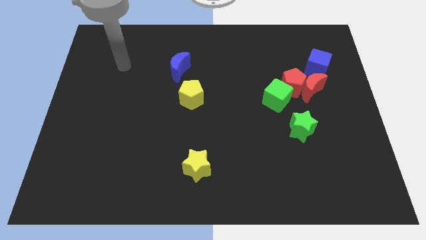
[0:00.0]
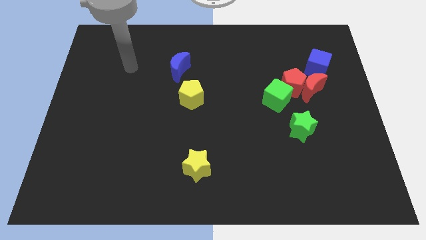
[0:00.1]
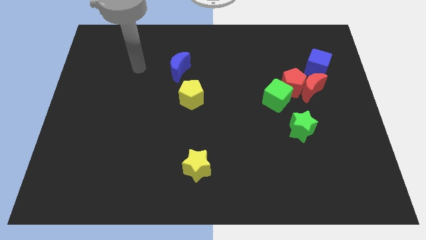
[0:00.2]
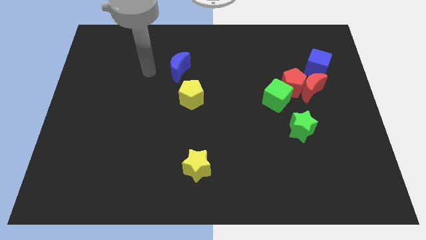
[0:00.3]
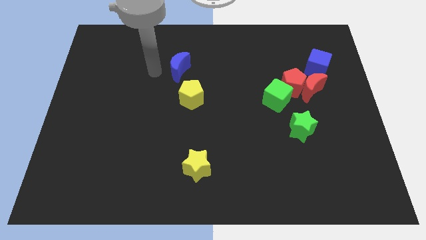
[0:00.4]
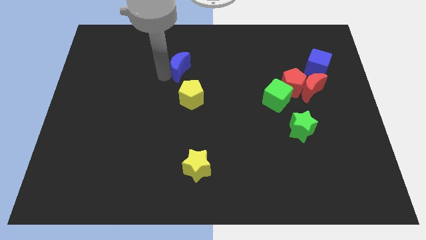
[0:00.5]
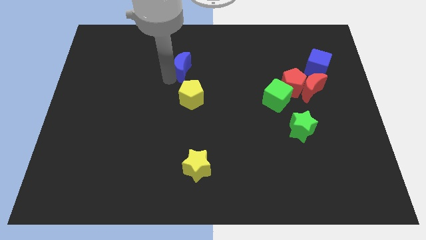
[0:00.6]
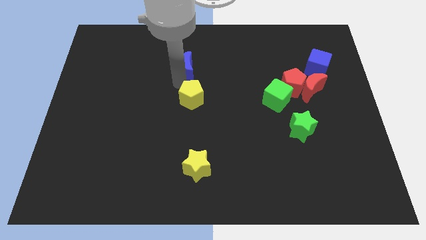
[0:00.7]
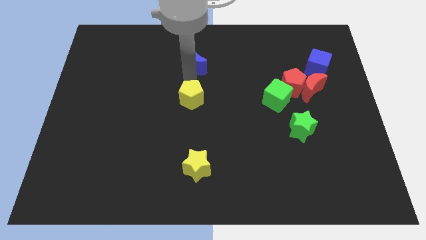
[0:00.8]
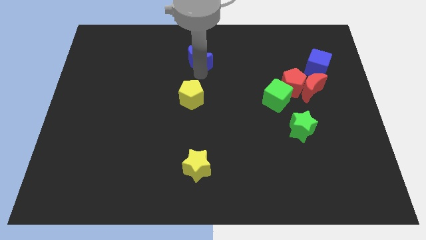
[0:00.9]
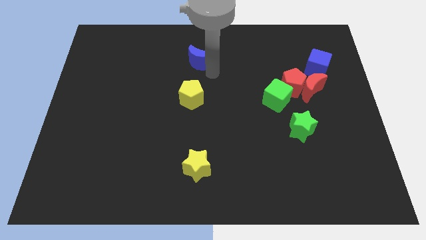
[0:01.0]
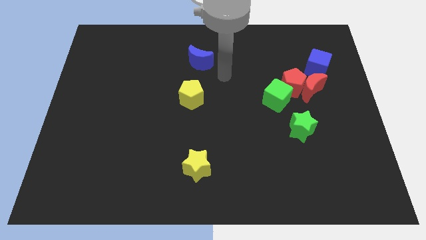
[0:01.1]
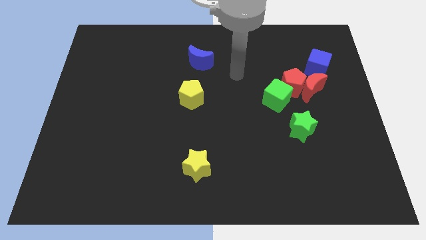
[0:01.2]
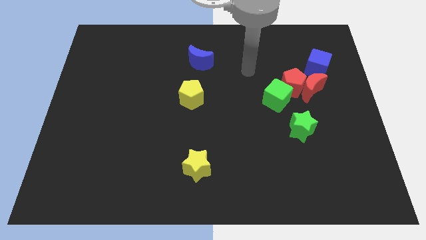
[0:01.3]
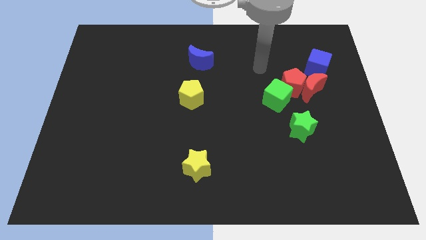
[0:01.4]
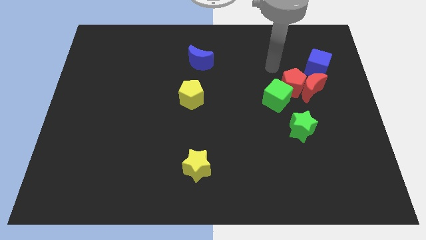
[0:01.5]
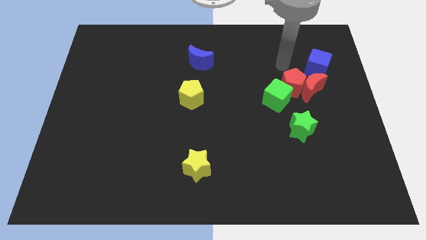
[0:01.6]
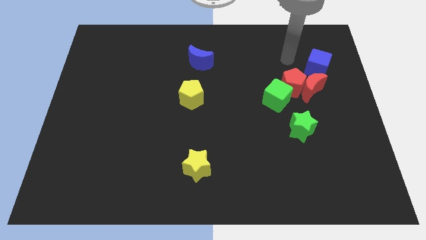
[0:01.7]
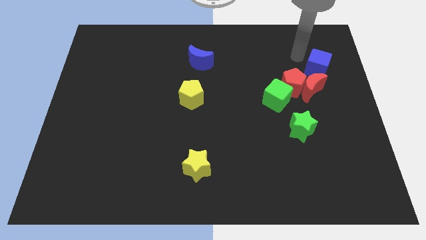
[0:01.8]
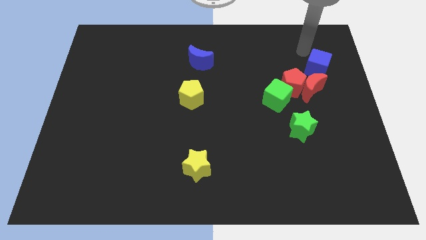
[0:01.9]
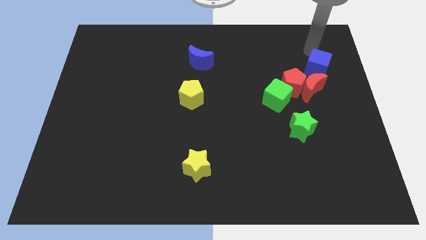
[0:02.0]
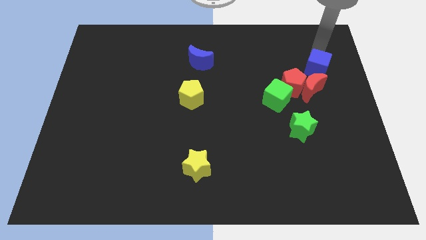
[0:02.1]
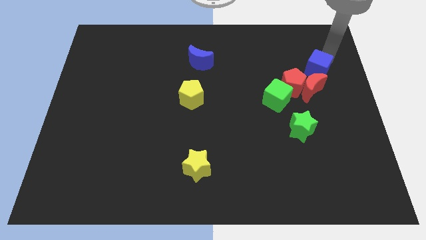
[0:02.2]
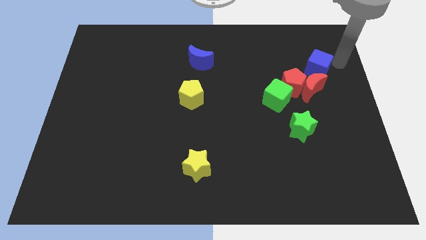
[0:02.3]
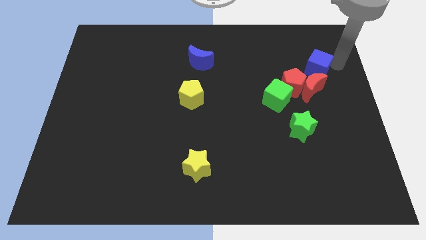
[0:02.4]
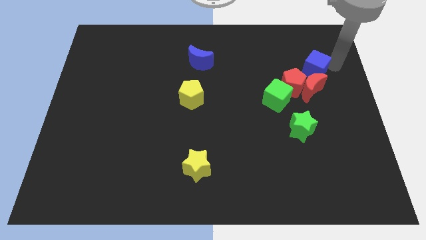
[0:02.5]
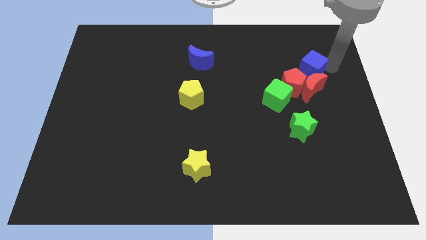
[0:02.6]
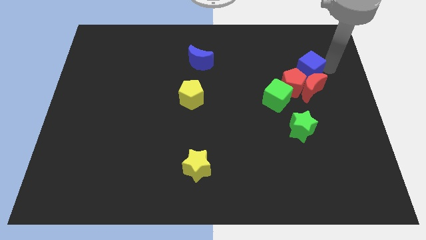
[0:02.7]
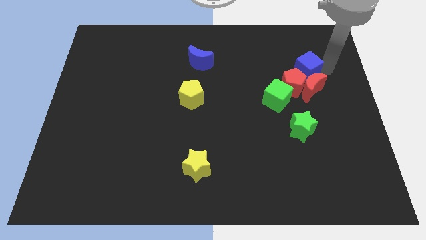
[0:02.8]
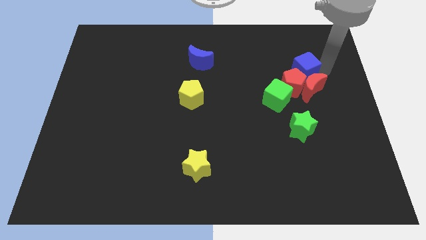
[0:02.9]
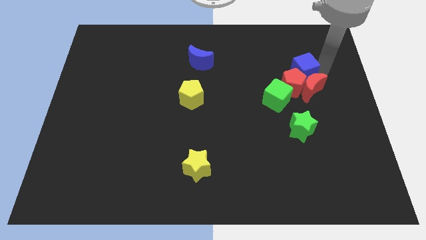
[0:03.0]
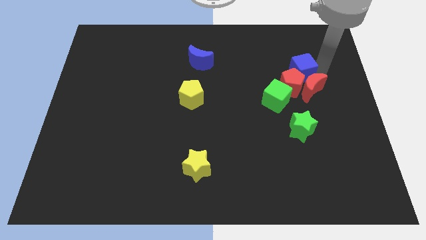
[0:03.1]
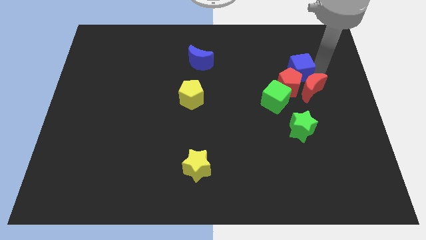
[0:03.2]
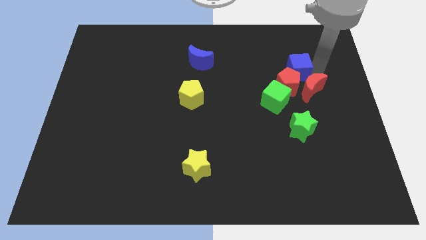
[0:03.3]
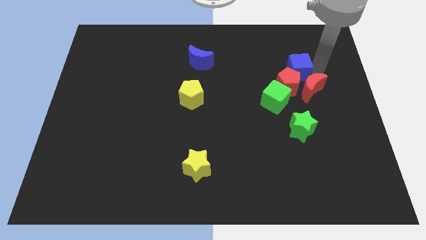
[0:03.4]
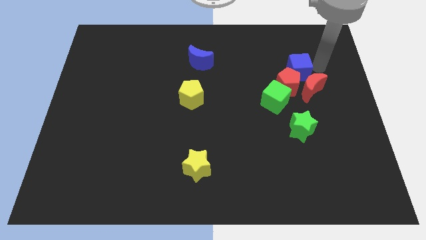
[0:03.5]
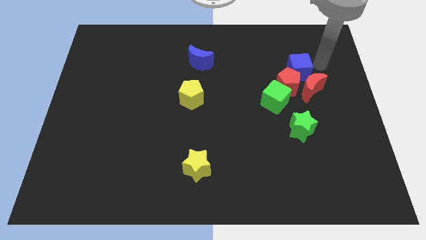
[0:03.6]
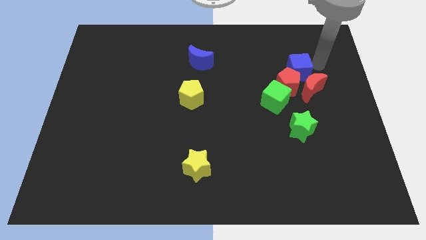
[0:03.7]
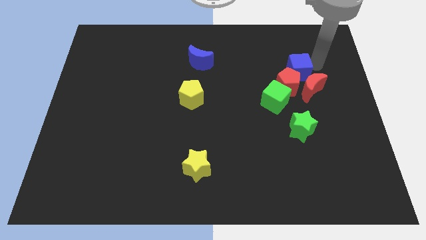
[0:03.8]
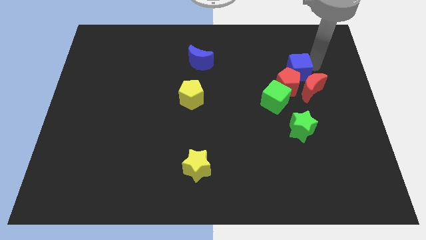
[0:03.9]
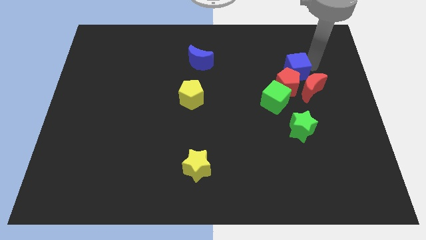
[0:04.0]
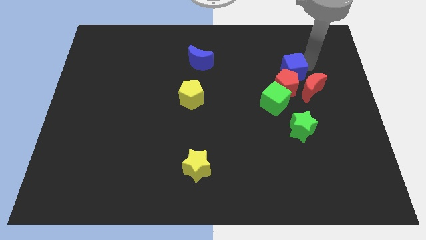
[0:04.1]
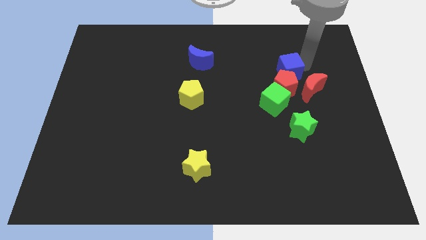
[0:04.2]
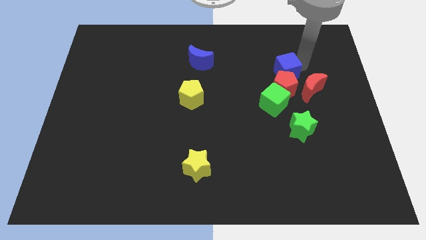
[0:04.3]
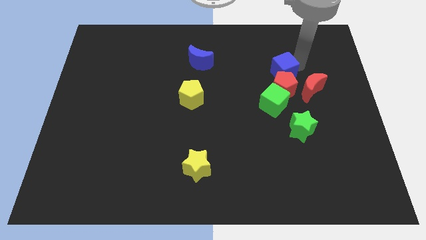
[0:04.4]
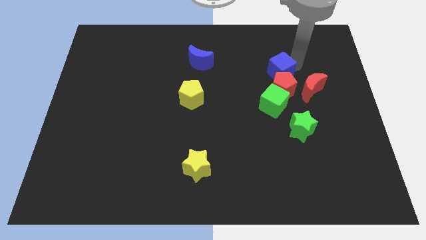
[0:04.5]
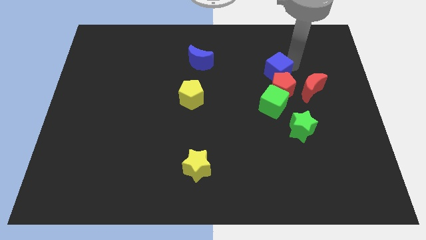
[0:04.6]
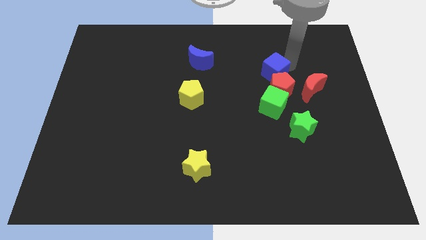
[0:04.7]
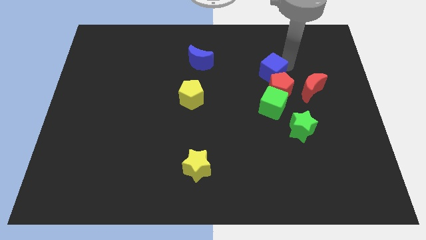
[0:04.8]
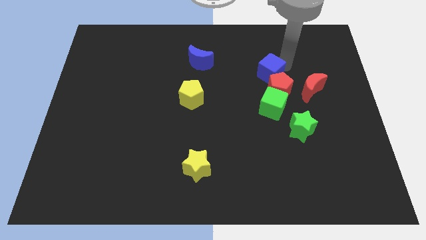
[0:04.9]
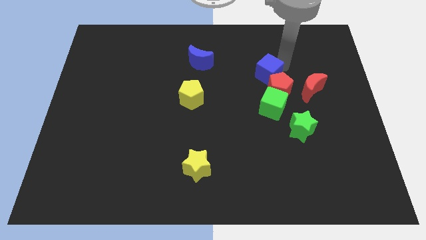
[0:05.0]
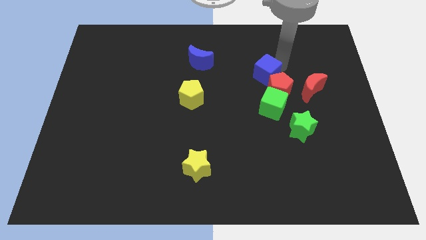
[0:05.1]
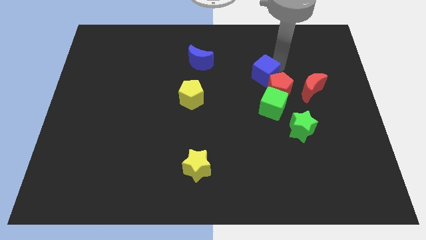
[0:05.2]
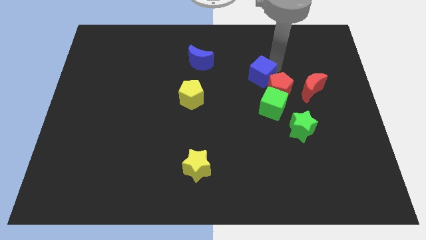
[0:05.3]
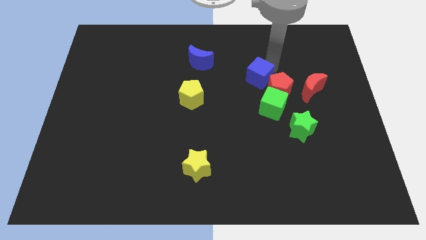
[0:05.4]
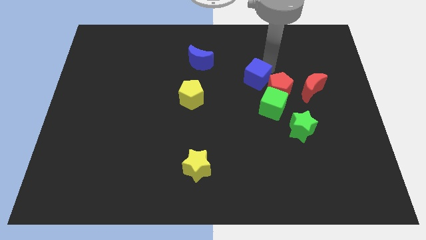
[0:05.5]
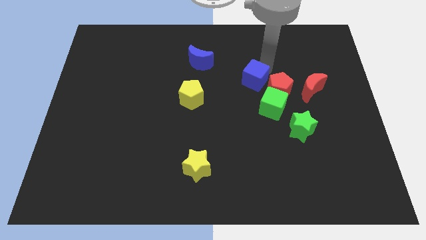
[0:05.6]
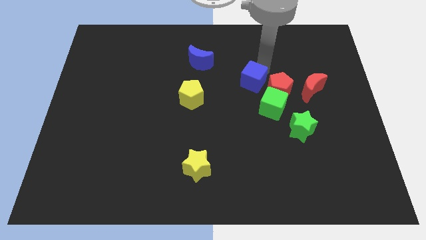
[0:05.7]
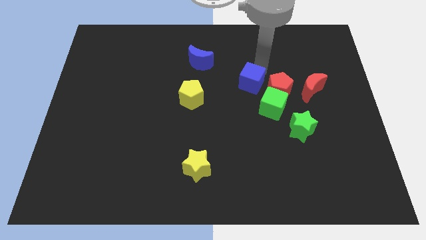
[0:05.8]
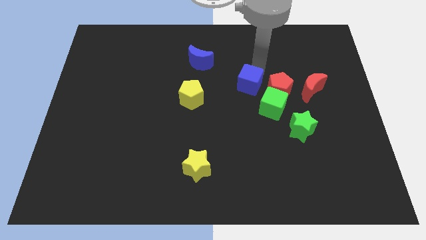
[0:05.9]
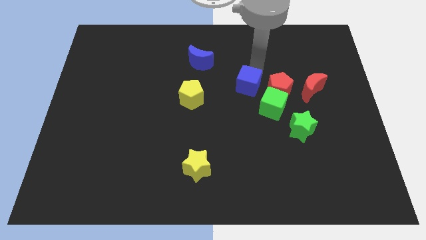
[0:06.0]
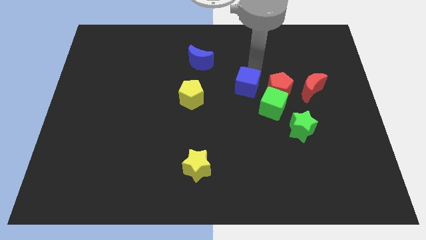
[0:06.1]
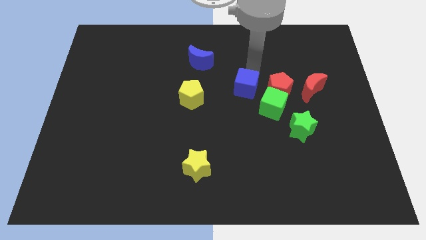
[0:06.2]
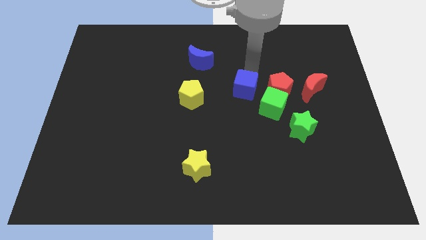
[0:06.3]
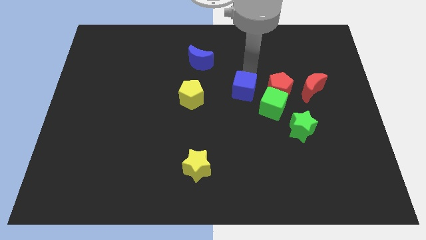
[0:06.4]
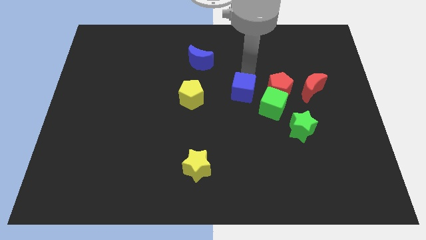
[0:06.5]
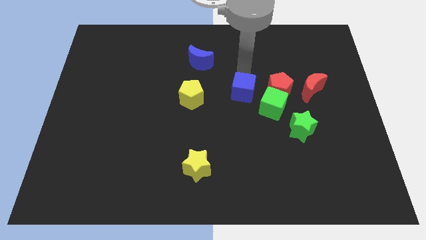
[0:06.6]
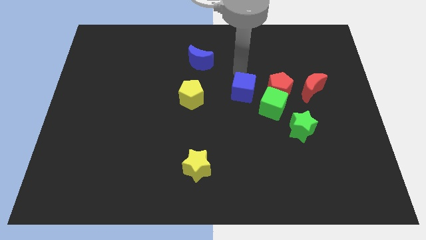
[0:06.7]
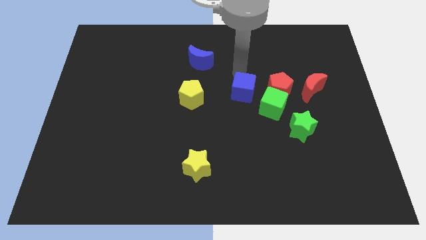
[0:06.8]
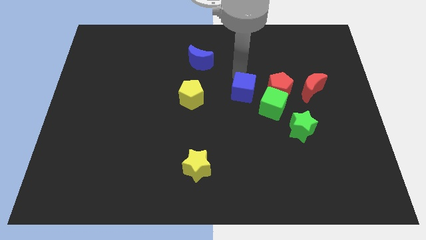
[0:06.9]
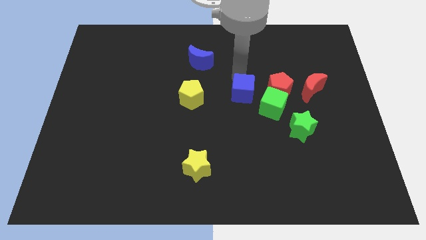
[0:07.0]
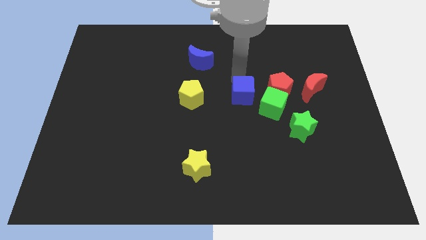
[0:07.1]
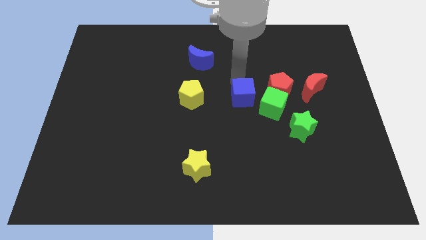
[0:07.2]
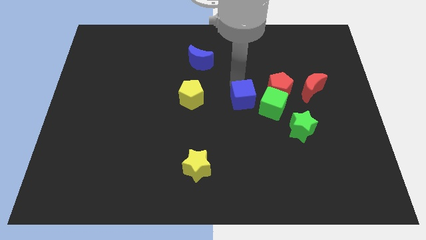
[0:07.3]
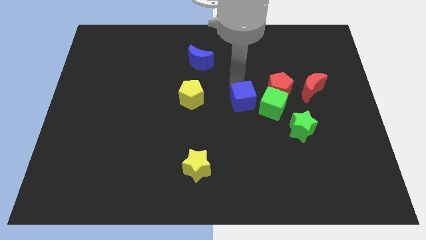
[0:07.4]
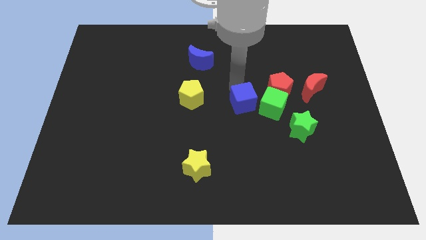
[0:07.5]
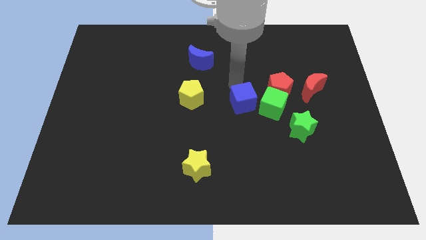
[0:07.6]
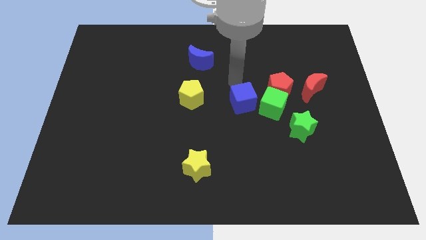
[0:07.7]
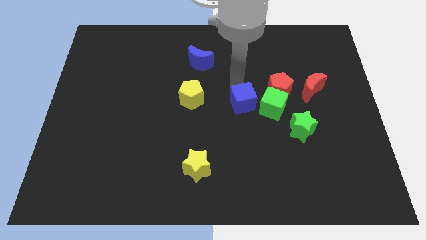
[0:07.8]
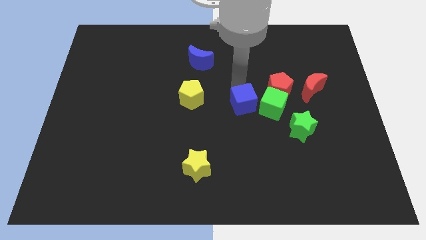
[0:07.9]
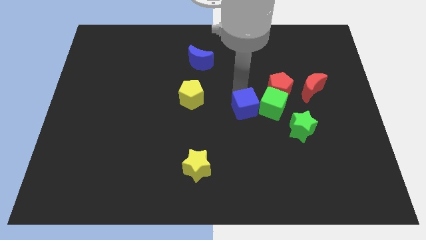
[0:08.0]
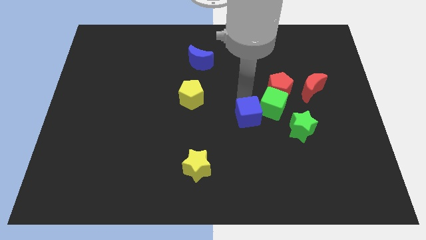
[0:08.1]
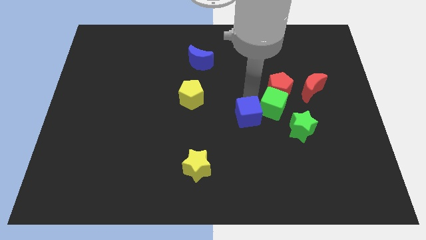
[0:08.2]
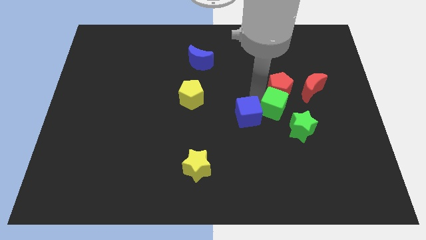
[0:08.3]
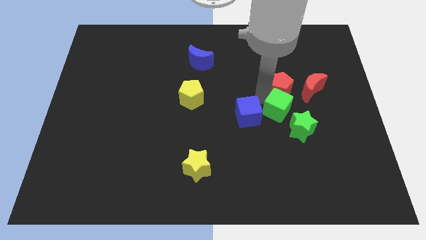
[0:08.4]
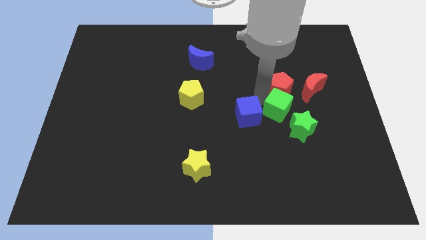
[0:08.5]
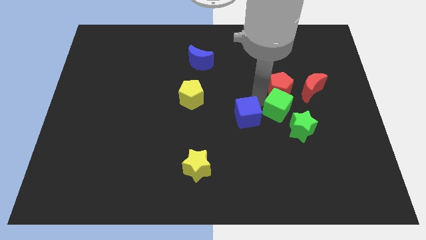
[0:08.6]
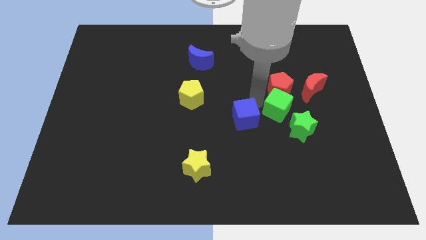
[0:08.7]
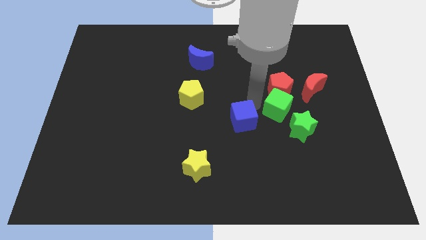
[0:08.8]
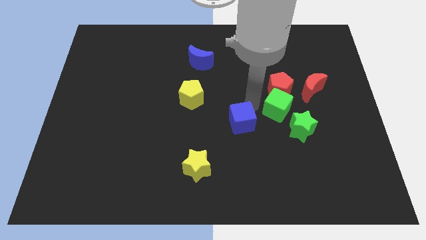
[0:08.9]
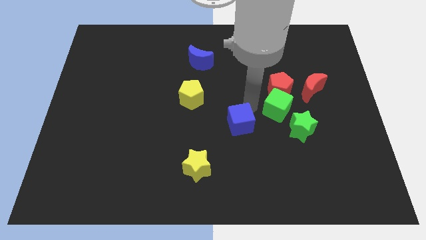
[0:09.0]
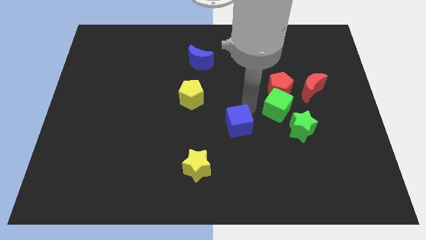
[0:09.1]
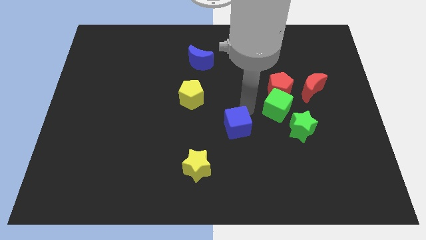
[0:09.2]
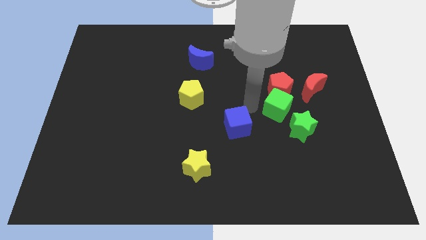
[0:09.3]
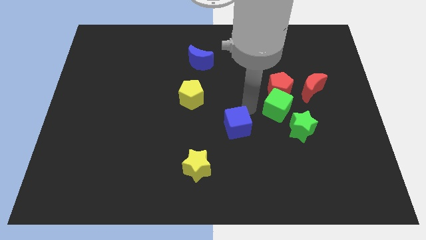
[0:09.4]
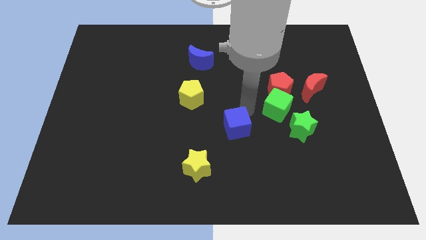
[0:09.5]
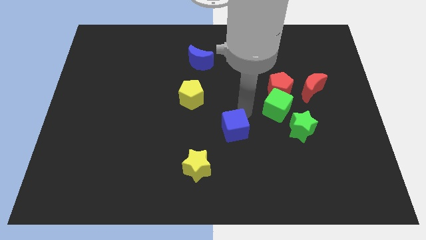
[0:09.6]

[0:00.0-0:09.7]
push the blue cube to the top right side of the yellow star
